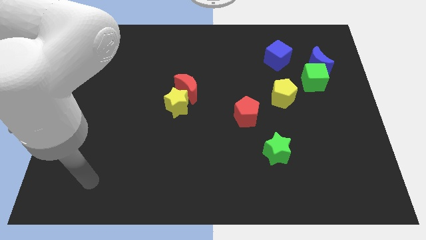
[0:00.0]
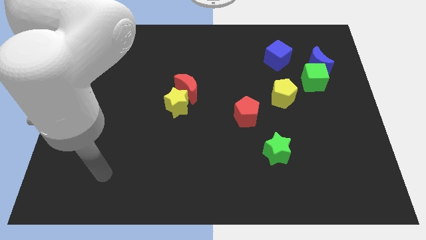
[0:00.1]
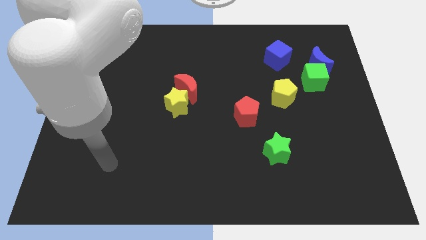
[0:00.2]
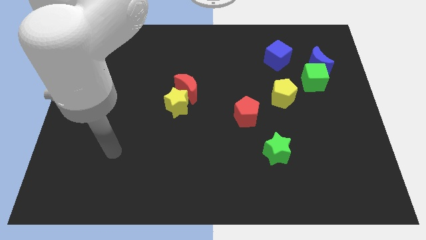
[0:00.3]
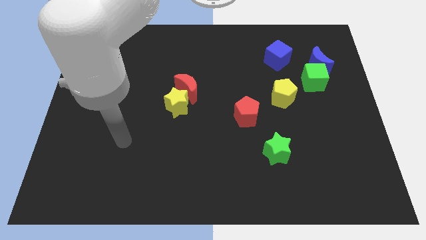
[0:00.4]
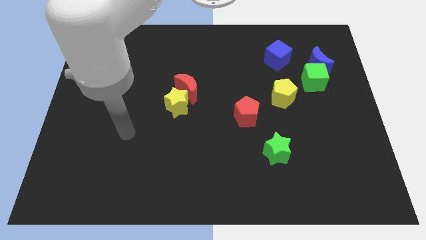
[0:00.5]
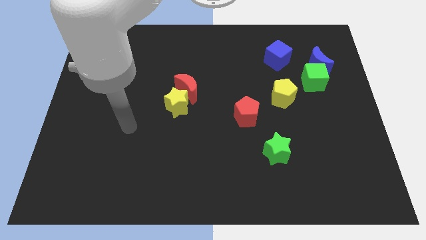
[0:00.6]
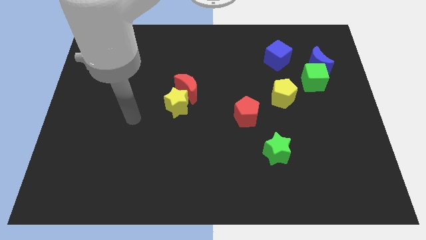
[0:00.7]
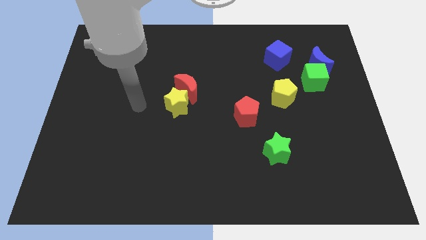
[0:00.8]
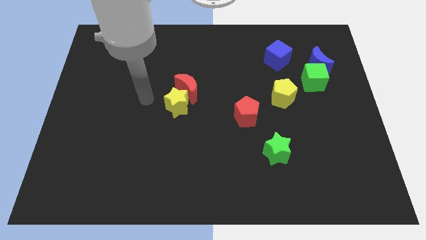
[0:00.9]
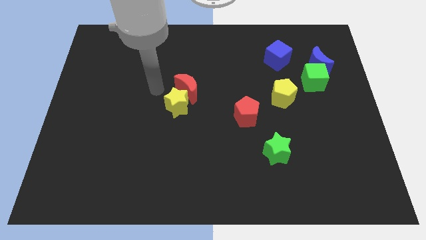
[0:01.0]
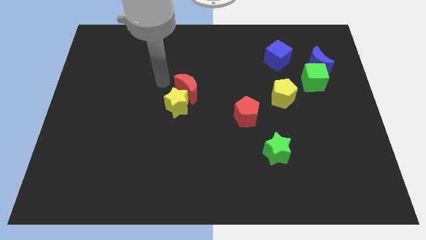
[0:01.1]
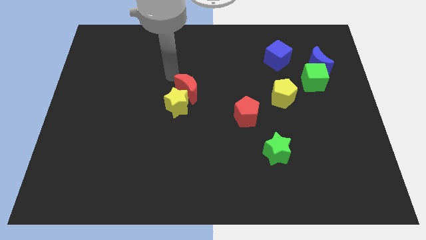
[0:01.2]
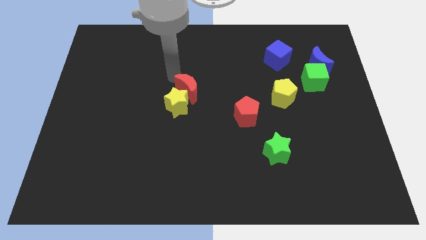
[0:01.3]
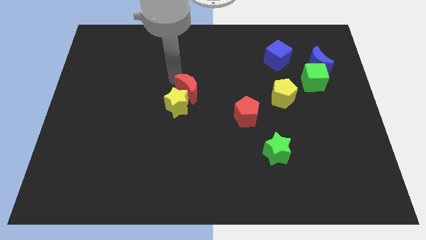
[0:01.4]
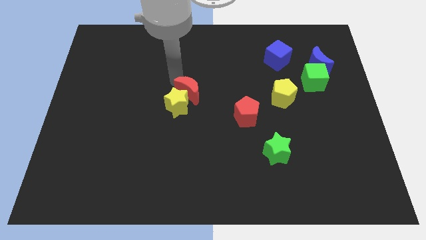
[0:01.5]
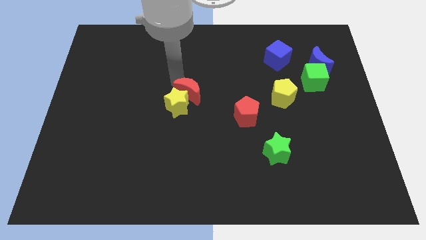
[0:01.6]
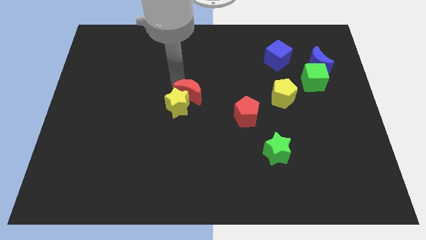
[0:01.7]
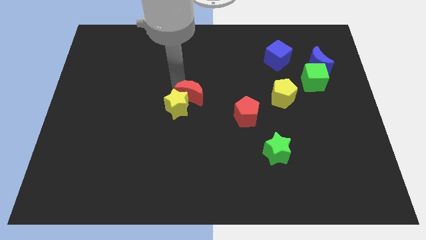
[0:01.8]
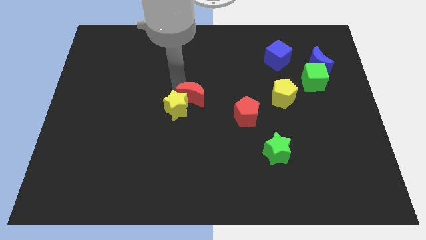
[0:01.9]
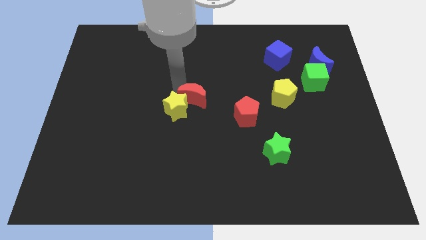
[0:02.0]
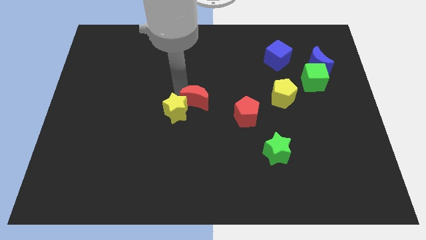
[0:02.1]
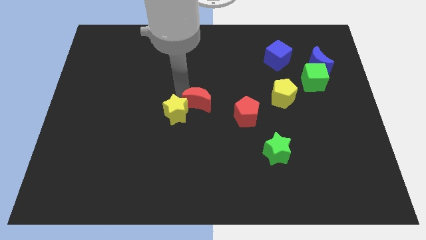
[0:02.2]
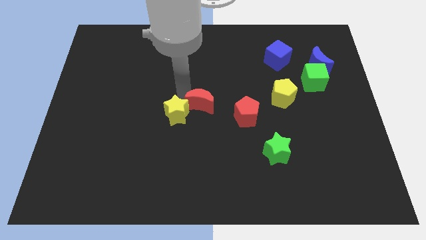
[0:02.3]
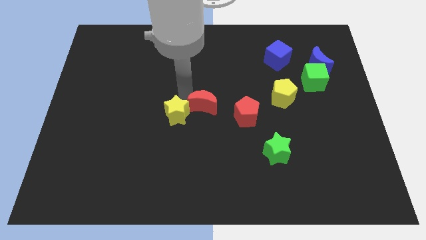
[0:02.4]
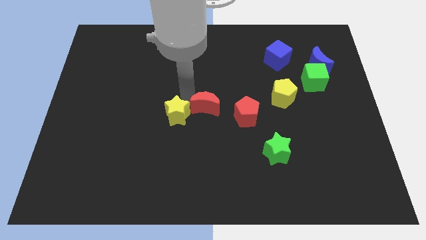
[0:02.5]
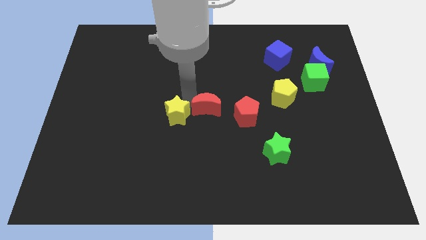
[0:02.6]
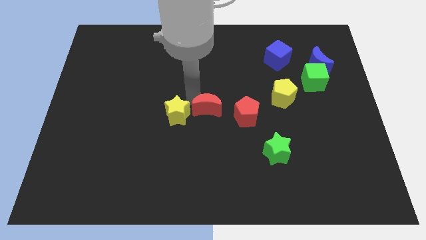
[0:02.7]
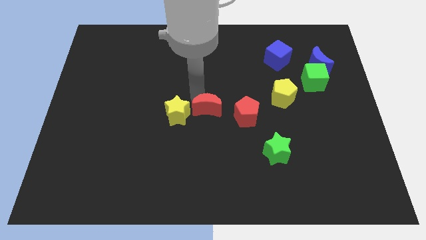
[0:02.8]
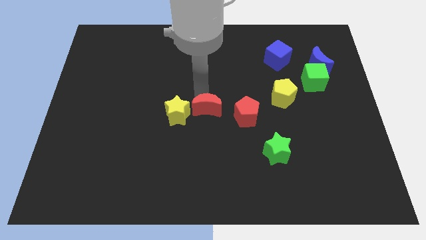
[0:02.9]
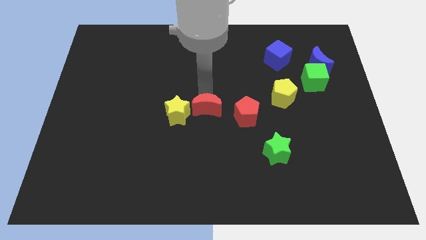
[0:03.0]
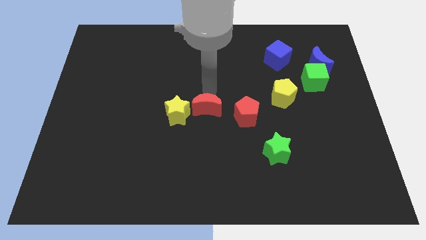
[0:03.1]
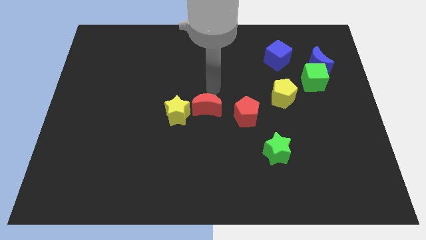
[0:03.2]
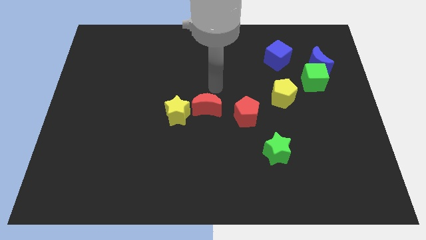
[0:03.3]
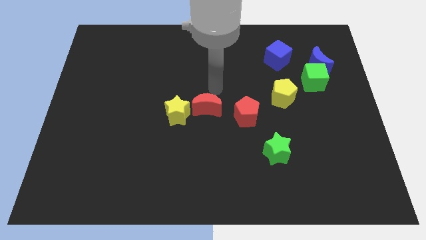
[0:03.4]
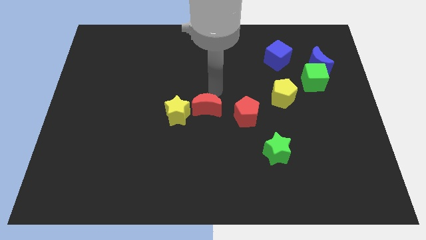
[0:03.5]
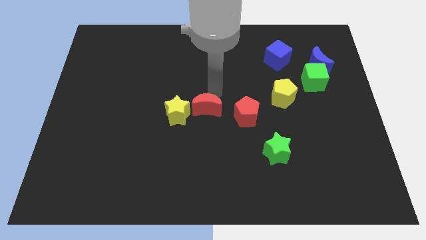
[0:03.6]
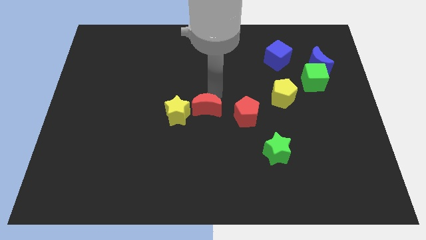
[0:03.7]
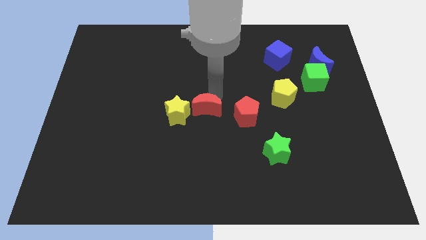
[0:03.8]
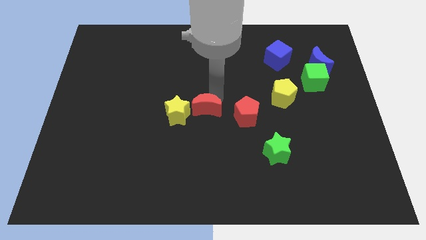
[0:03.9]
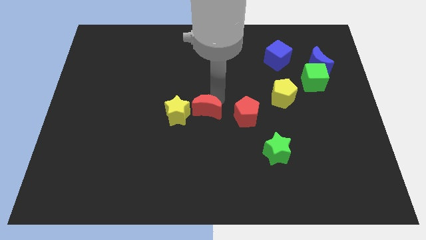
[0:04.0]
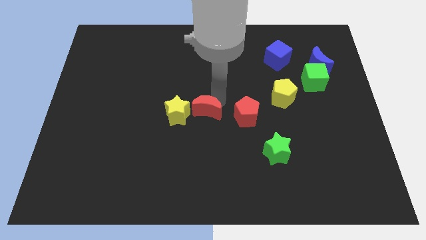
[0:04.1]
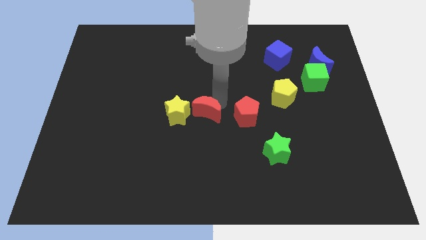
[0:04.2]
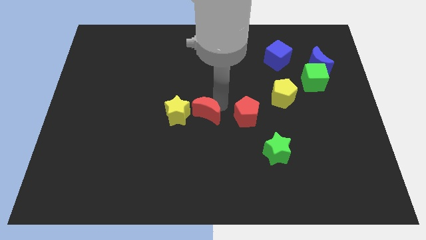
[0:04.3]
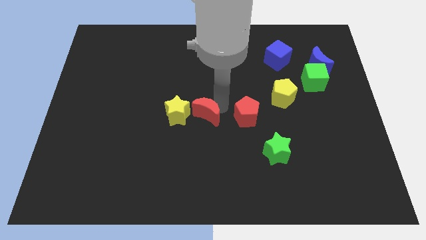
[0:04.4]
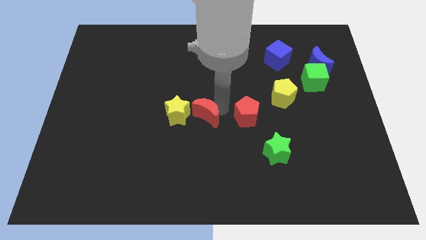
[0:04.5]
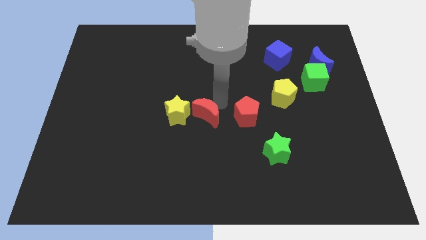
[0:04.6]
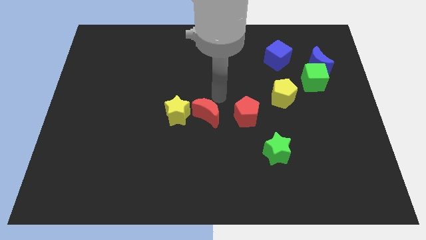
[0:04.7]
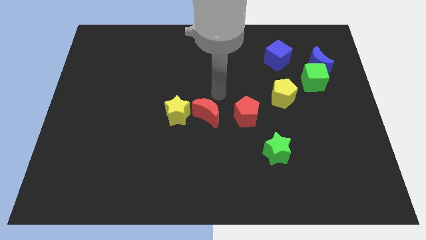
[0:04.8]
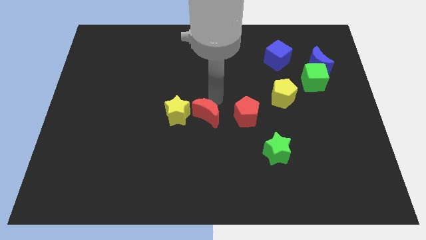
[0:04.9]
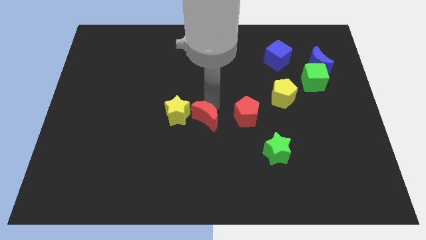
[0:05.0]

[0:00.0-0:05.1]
move the red moon slightly down

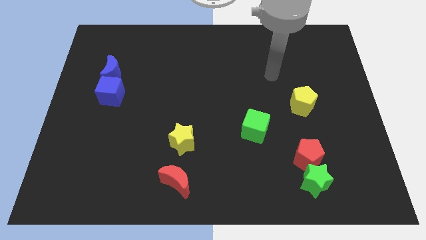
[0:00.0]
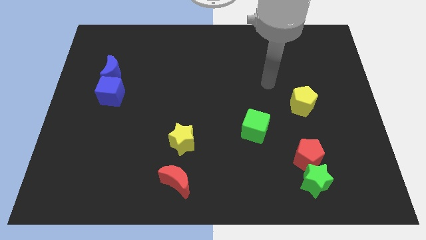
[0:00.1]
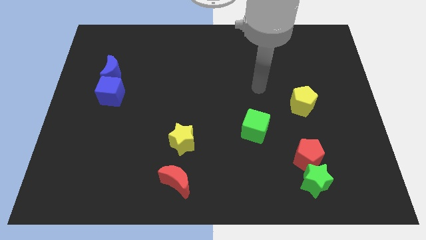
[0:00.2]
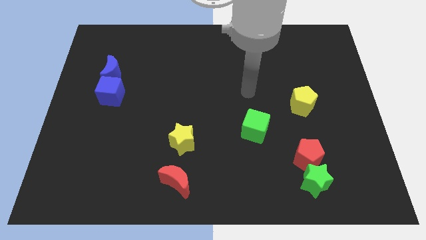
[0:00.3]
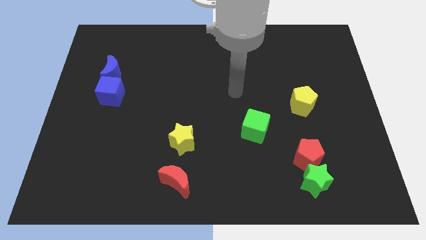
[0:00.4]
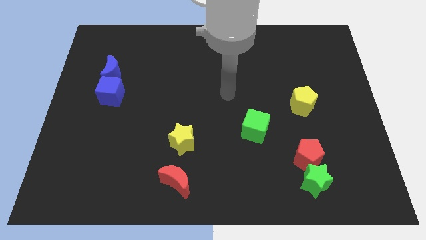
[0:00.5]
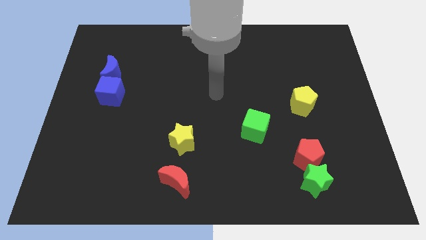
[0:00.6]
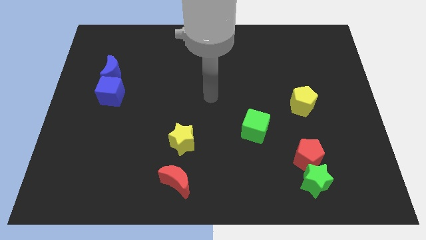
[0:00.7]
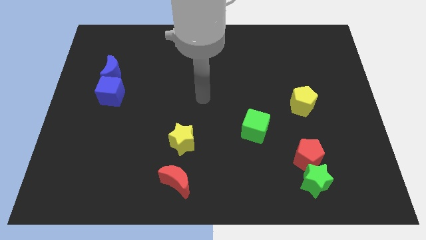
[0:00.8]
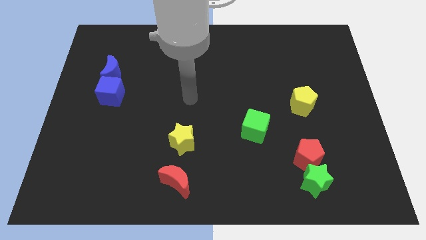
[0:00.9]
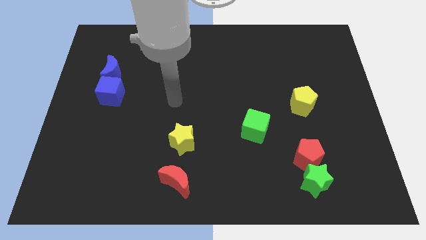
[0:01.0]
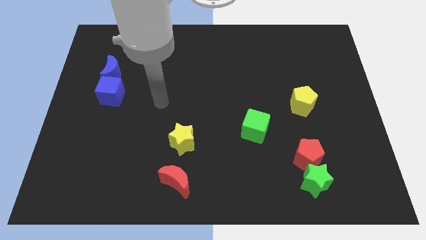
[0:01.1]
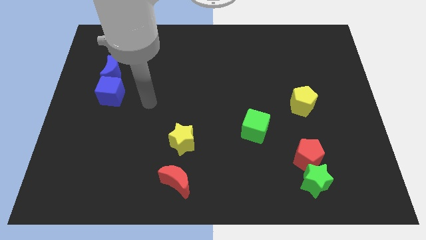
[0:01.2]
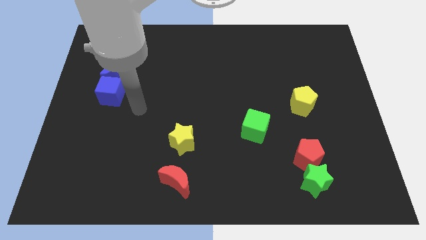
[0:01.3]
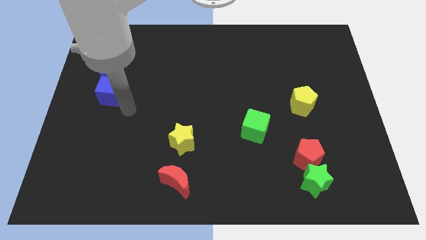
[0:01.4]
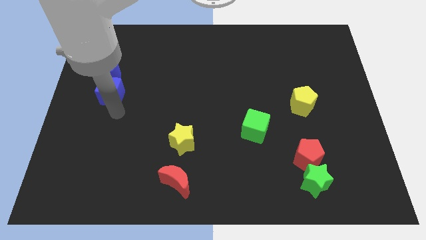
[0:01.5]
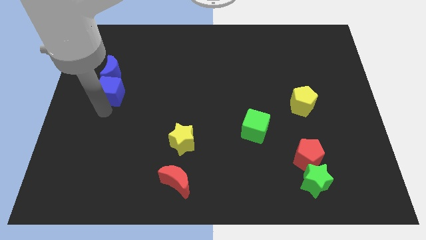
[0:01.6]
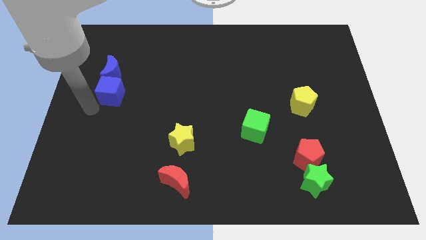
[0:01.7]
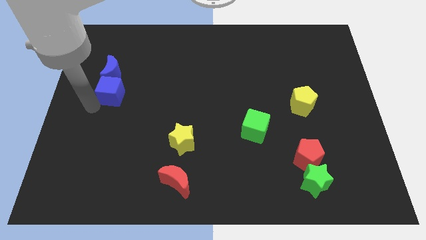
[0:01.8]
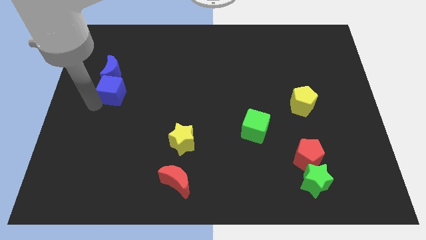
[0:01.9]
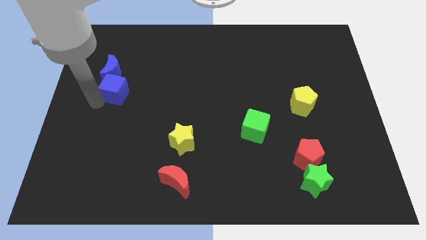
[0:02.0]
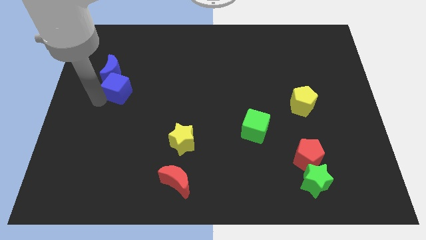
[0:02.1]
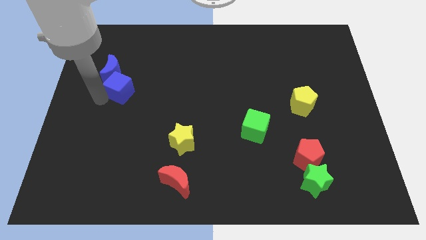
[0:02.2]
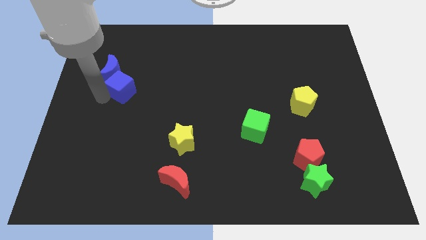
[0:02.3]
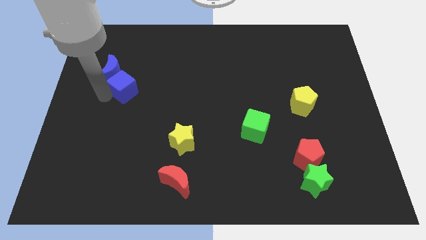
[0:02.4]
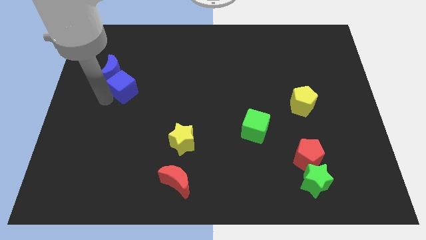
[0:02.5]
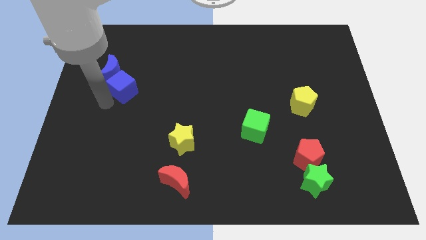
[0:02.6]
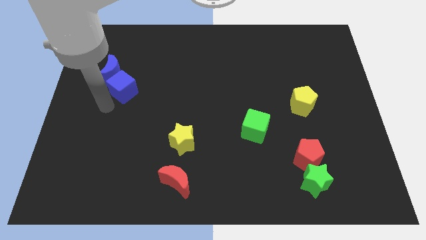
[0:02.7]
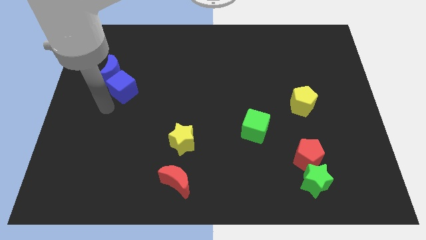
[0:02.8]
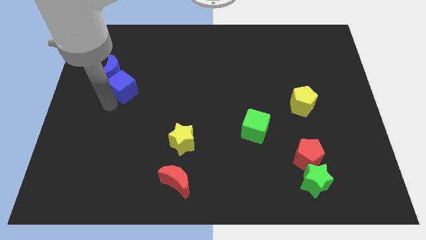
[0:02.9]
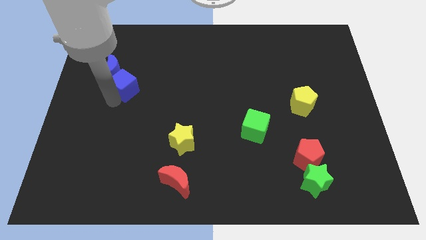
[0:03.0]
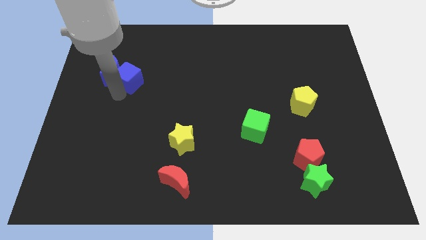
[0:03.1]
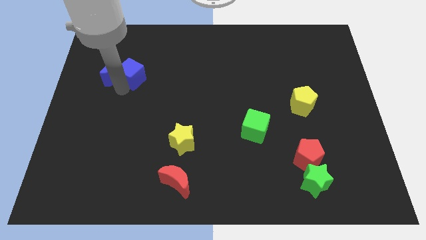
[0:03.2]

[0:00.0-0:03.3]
slightly push the blue cube upwards and right
